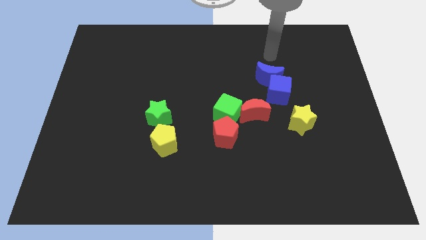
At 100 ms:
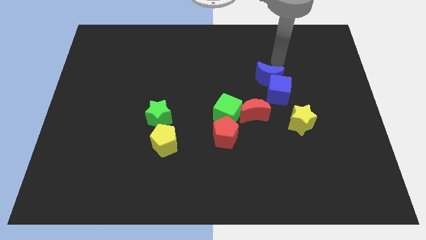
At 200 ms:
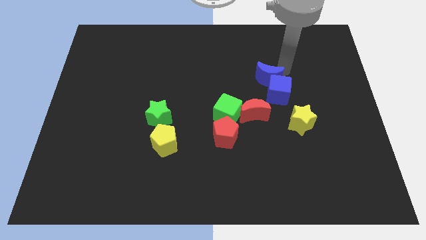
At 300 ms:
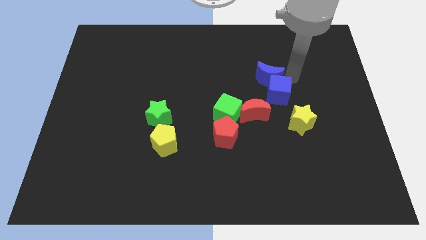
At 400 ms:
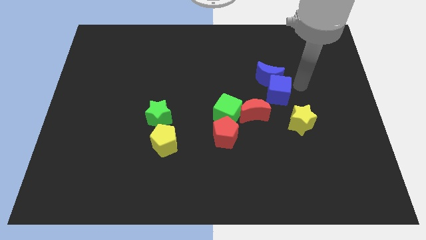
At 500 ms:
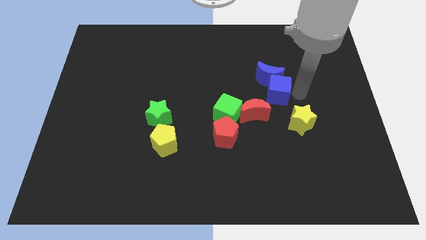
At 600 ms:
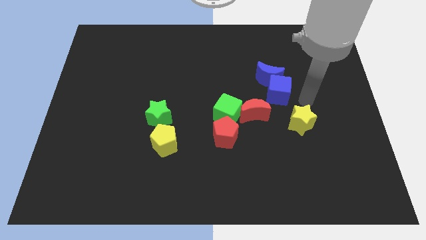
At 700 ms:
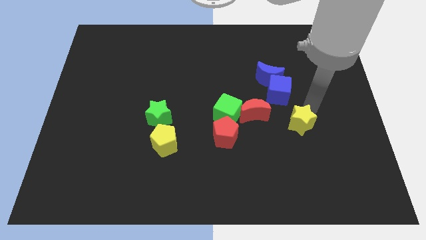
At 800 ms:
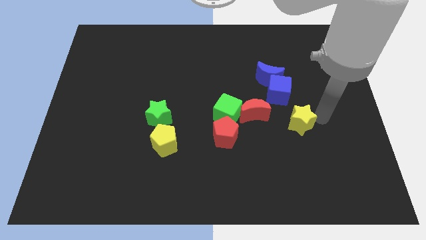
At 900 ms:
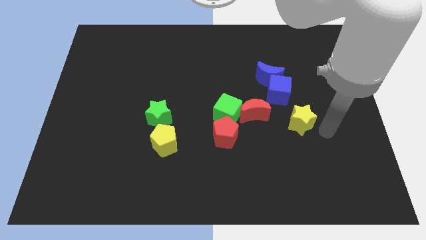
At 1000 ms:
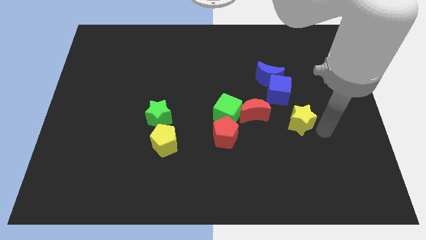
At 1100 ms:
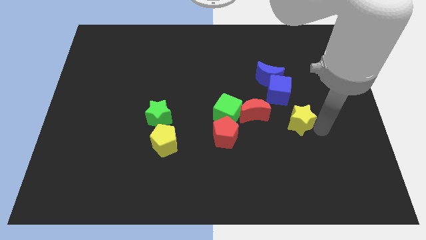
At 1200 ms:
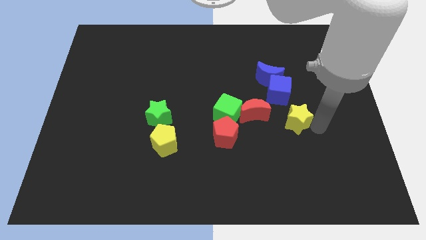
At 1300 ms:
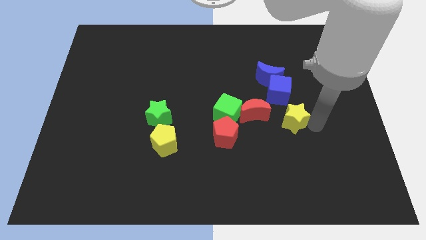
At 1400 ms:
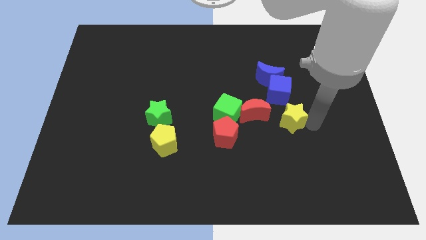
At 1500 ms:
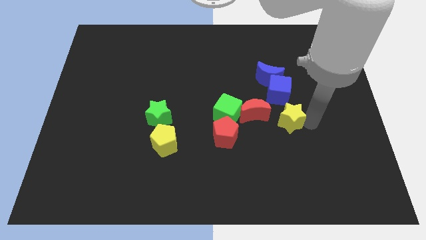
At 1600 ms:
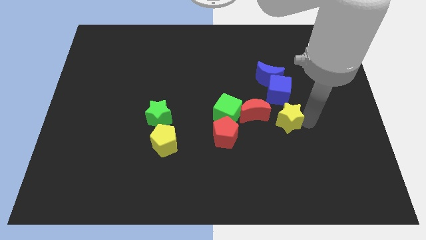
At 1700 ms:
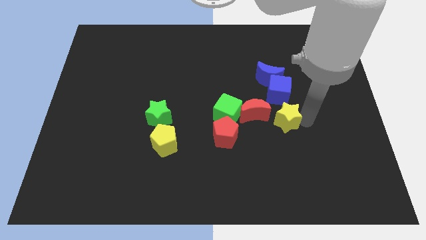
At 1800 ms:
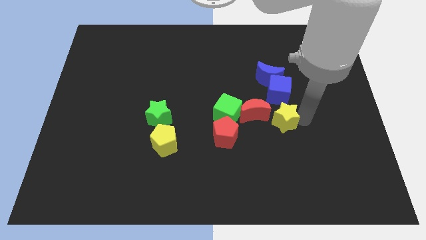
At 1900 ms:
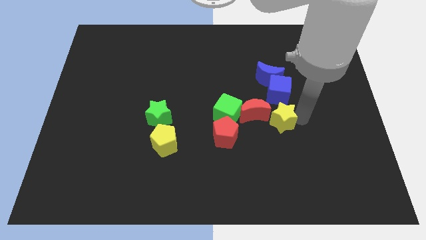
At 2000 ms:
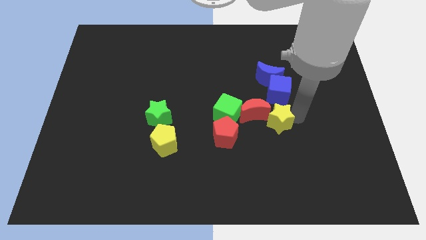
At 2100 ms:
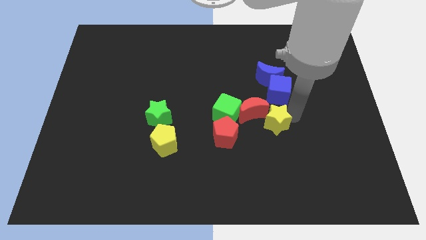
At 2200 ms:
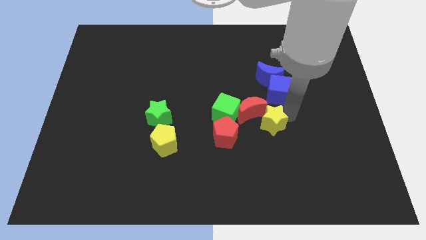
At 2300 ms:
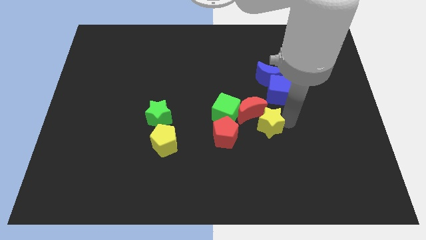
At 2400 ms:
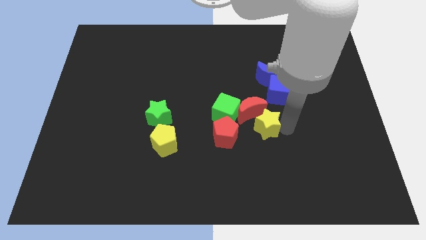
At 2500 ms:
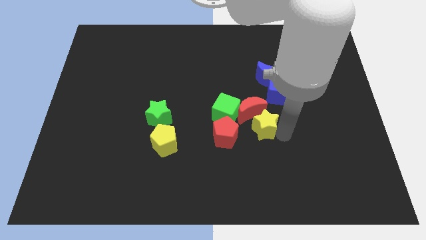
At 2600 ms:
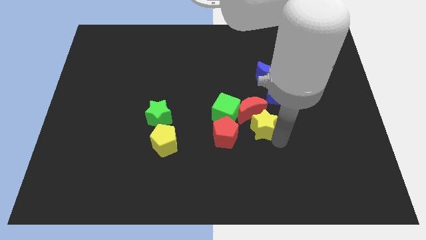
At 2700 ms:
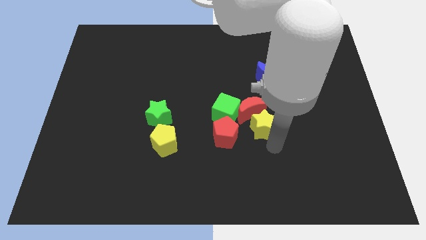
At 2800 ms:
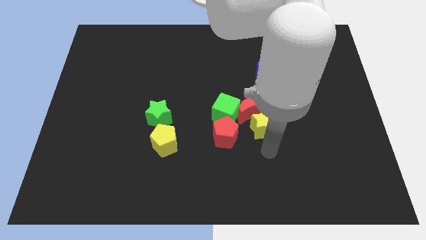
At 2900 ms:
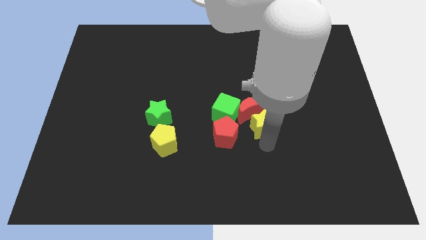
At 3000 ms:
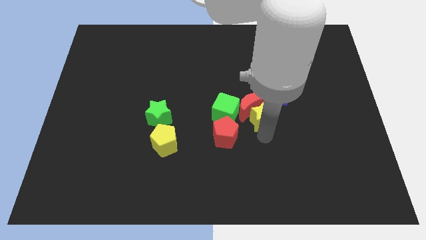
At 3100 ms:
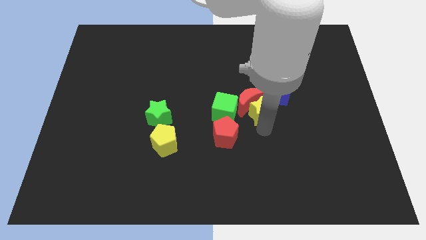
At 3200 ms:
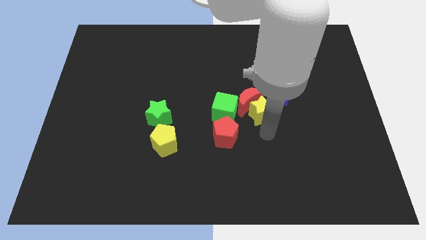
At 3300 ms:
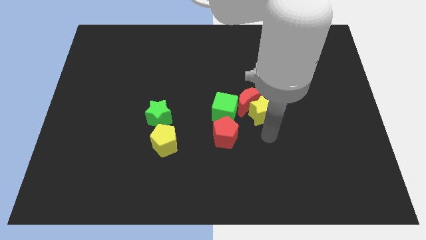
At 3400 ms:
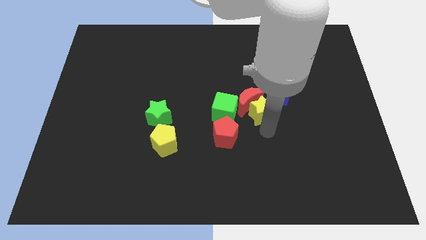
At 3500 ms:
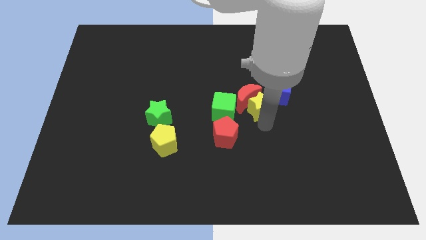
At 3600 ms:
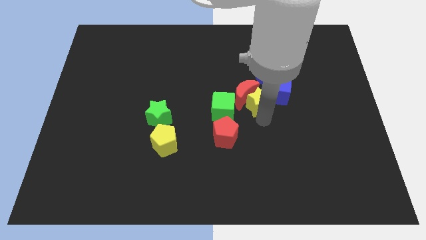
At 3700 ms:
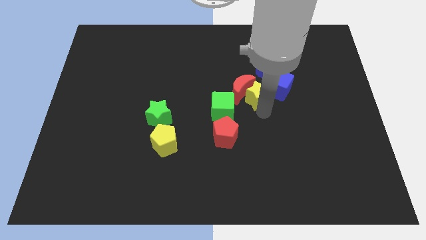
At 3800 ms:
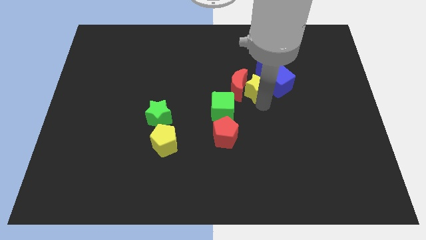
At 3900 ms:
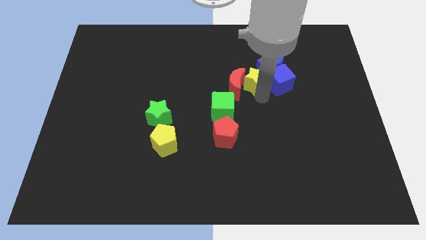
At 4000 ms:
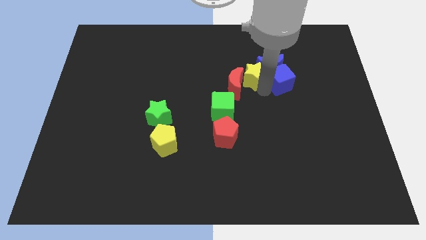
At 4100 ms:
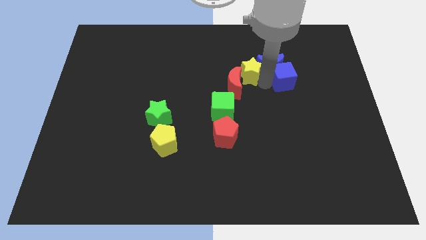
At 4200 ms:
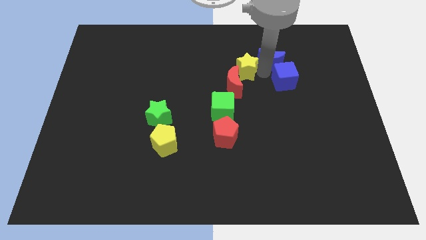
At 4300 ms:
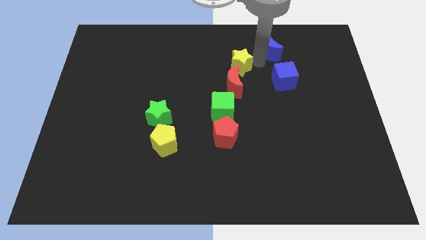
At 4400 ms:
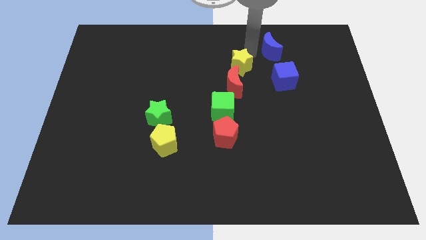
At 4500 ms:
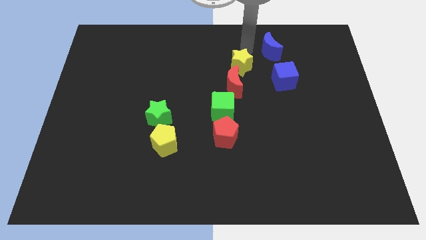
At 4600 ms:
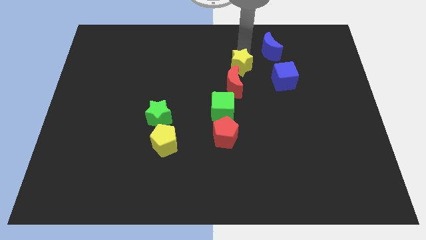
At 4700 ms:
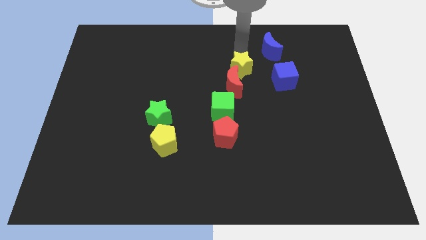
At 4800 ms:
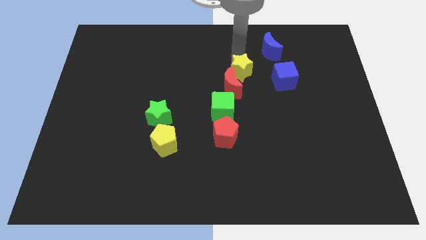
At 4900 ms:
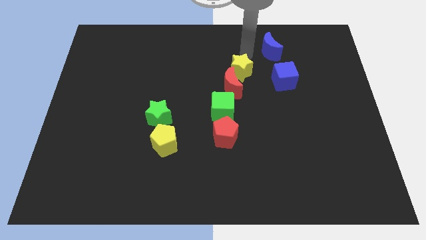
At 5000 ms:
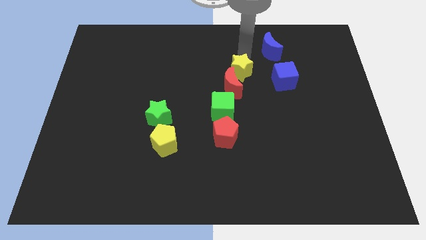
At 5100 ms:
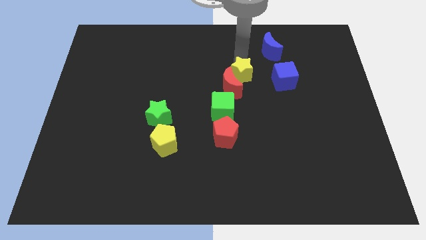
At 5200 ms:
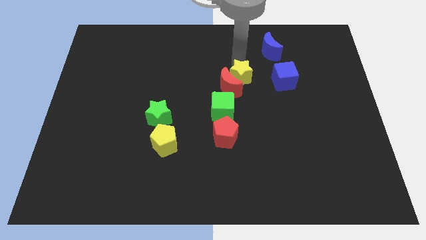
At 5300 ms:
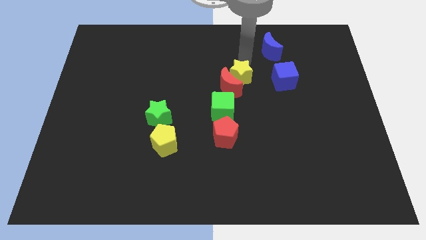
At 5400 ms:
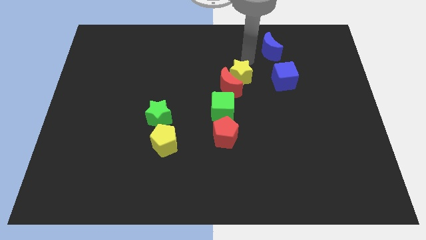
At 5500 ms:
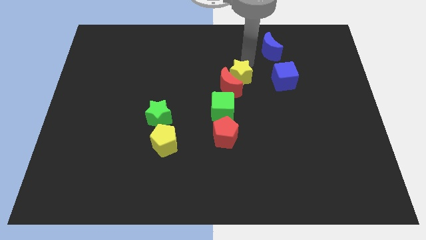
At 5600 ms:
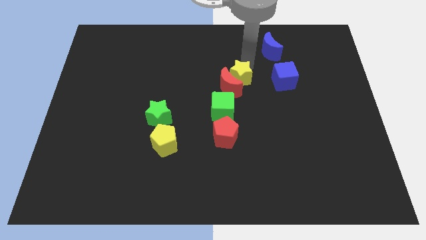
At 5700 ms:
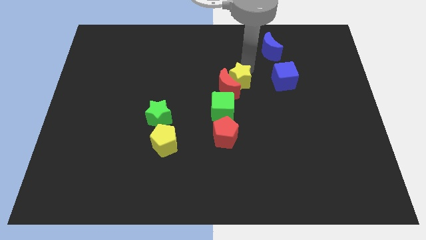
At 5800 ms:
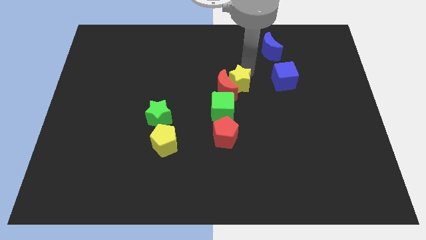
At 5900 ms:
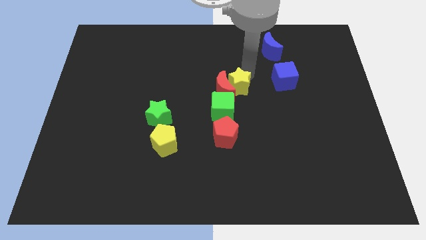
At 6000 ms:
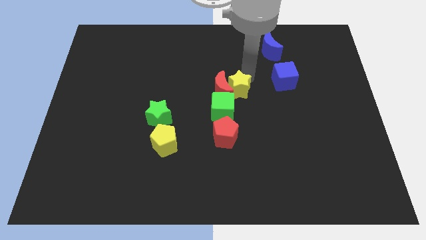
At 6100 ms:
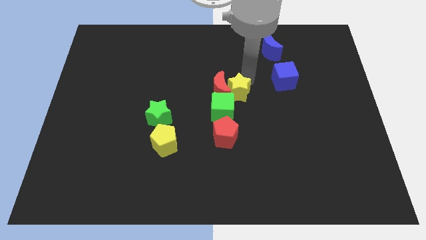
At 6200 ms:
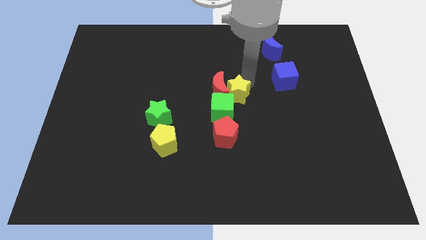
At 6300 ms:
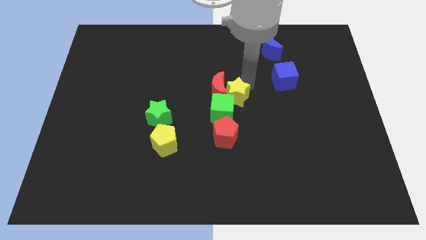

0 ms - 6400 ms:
slide the yellow star to the green cube

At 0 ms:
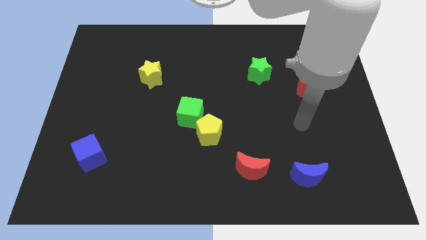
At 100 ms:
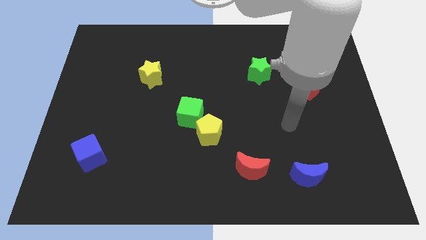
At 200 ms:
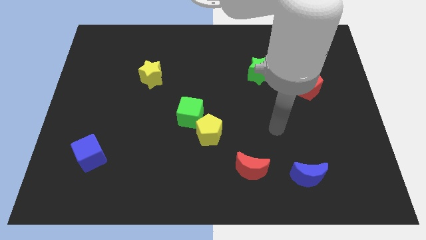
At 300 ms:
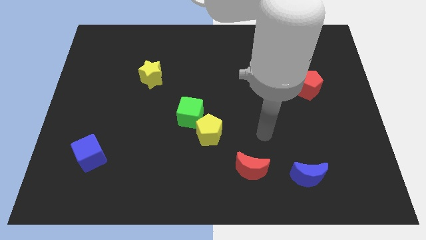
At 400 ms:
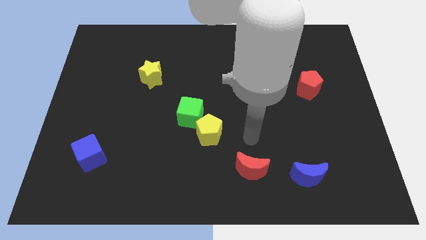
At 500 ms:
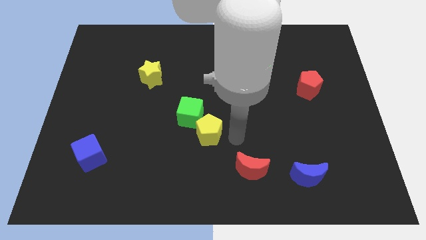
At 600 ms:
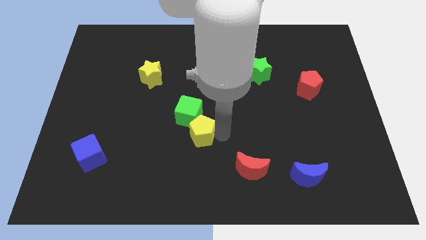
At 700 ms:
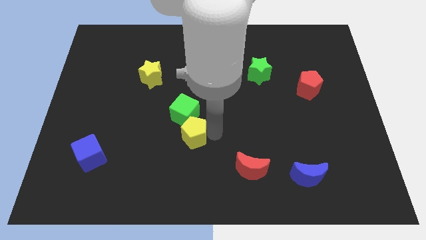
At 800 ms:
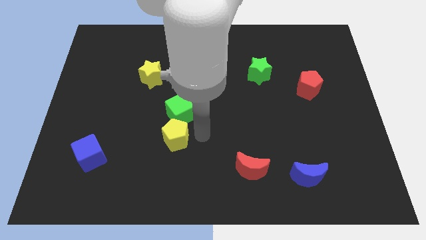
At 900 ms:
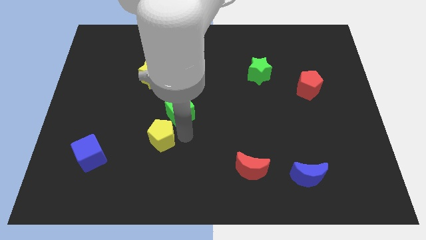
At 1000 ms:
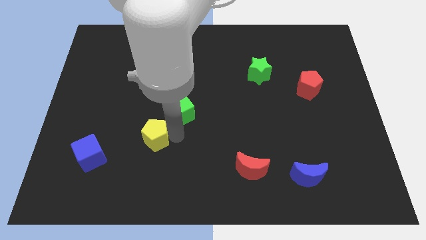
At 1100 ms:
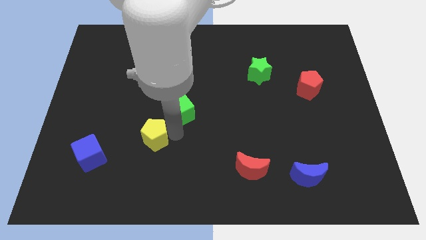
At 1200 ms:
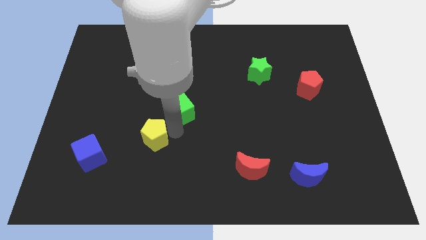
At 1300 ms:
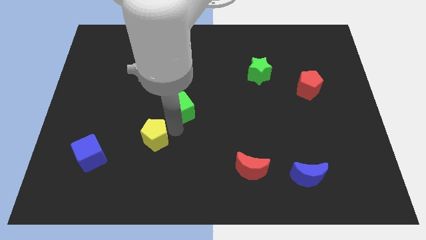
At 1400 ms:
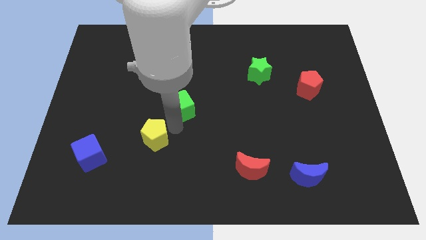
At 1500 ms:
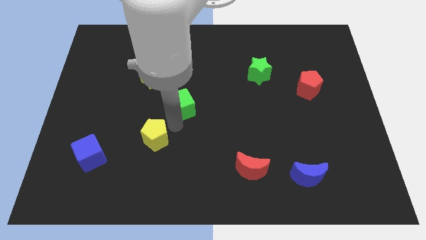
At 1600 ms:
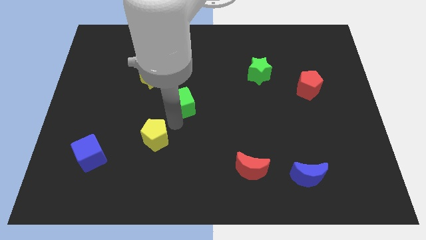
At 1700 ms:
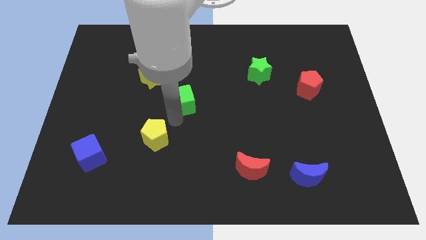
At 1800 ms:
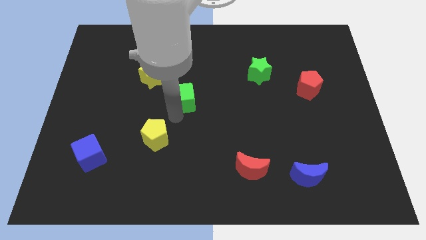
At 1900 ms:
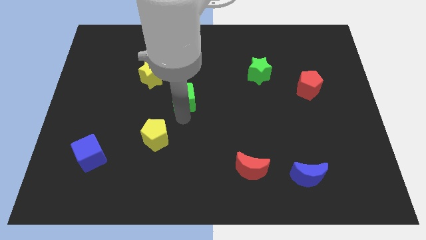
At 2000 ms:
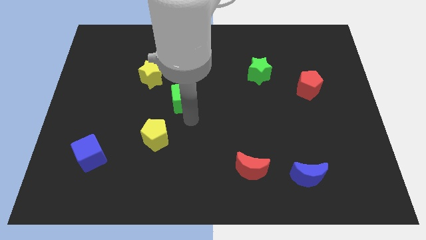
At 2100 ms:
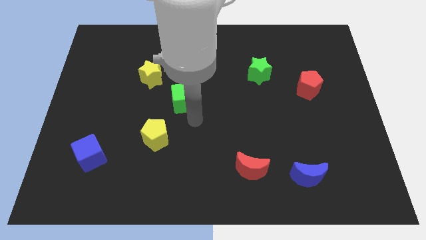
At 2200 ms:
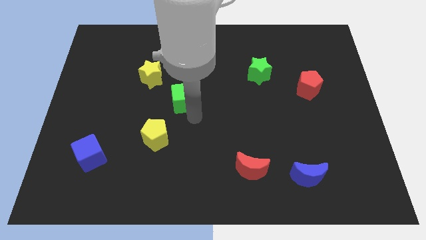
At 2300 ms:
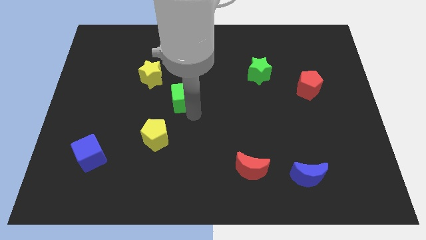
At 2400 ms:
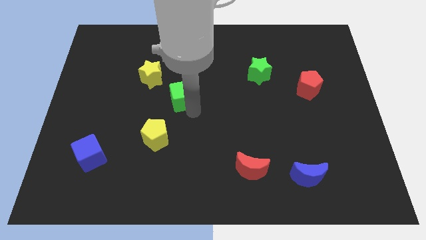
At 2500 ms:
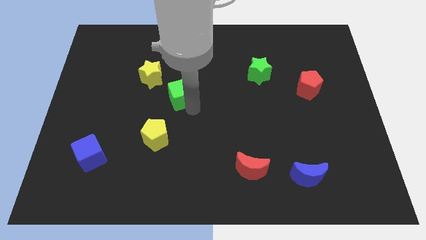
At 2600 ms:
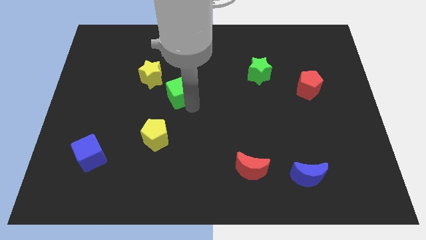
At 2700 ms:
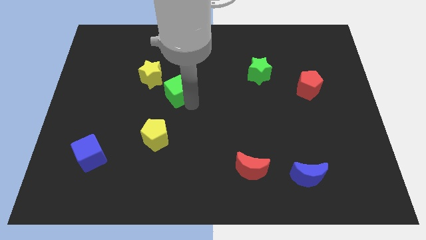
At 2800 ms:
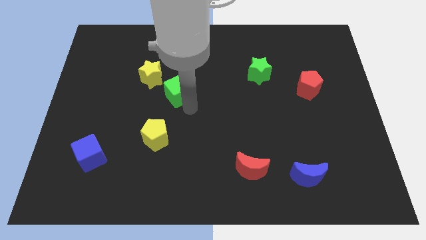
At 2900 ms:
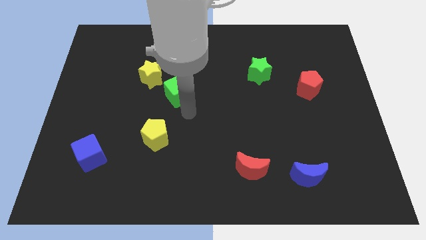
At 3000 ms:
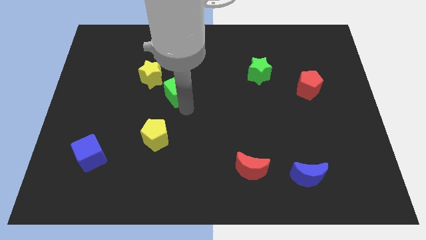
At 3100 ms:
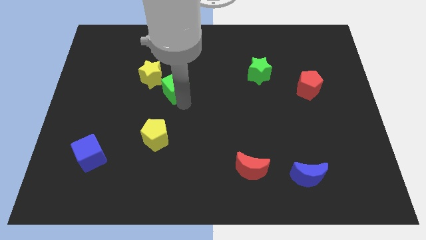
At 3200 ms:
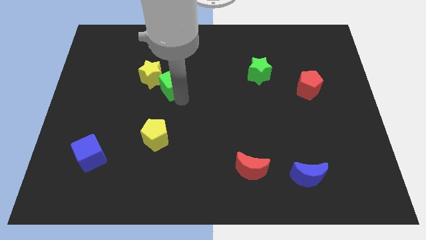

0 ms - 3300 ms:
move the green cube to the yellow star
